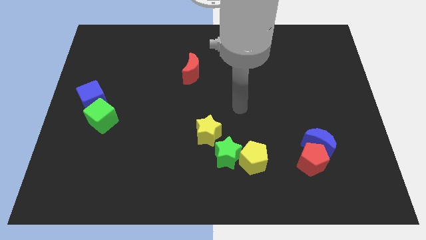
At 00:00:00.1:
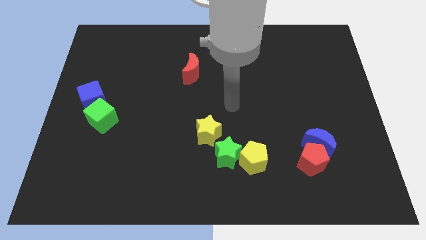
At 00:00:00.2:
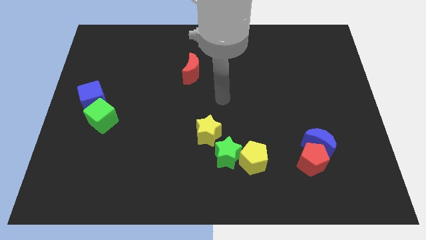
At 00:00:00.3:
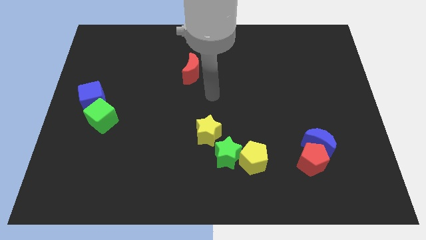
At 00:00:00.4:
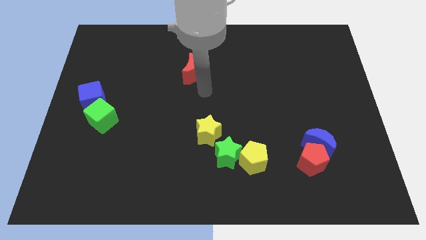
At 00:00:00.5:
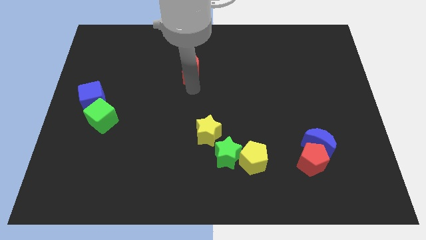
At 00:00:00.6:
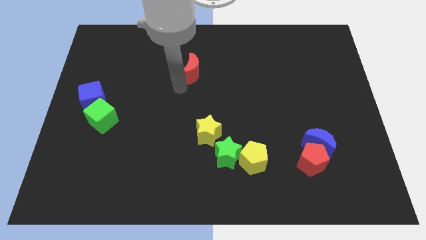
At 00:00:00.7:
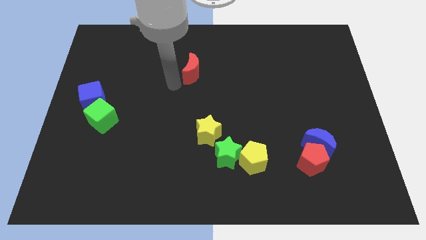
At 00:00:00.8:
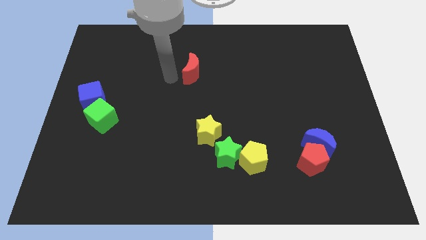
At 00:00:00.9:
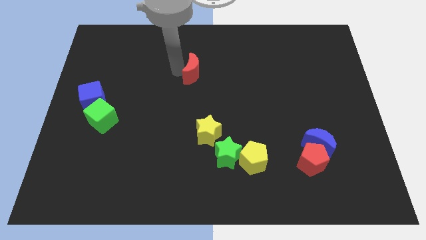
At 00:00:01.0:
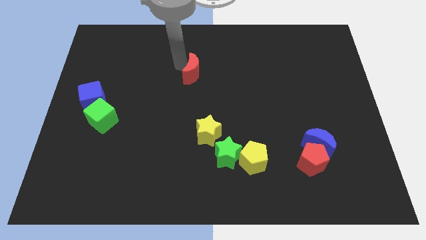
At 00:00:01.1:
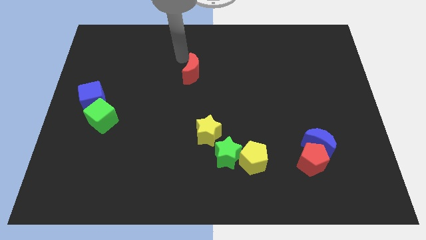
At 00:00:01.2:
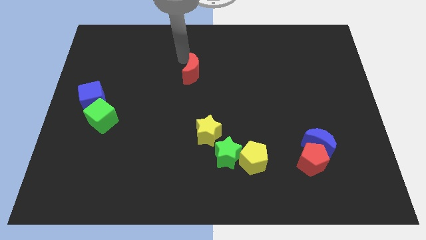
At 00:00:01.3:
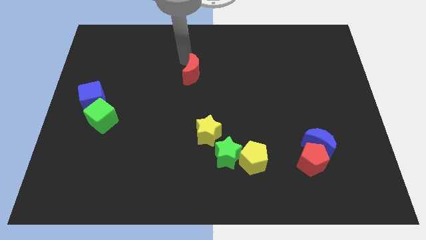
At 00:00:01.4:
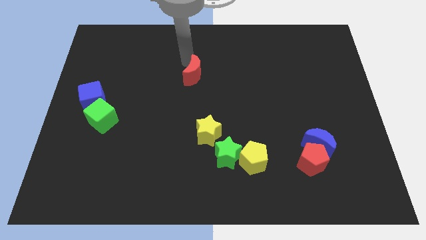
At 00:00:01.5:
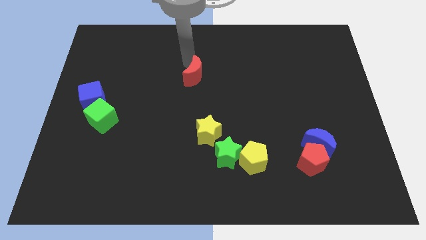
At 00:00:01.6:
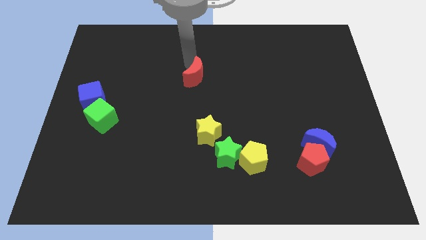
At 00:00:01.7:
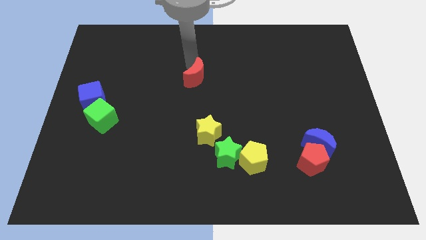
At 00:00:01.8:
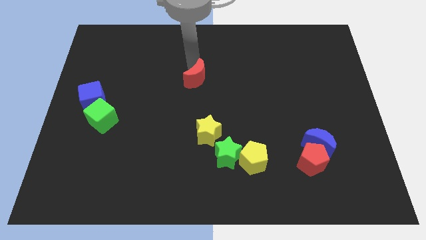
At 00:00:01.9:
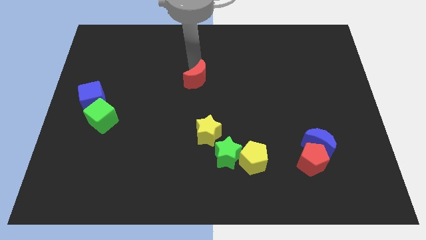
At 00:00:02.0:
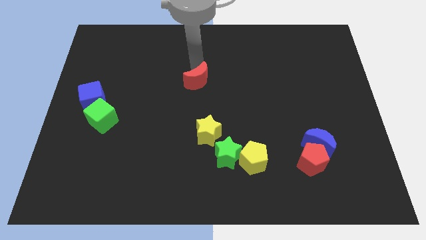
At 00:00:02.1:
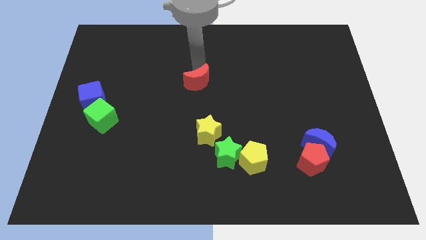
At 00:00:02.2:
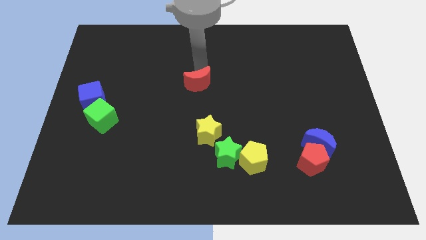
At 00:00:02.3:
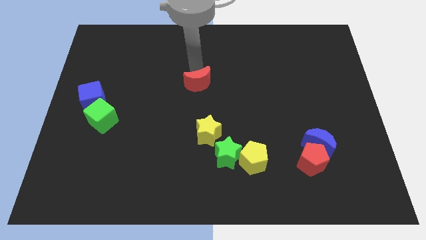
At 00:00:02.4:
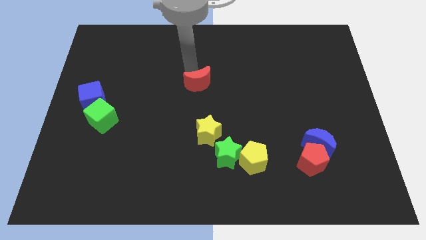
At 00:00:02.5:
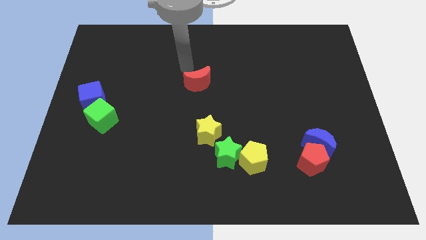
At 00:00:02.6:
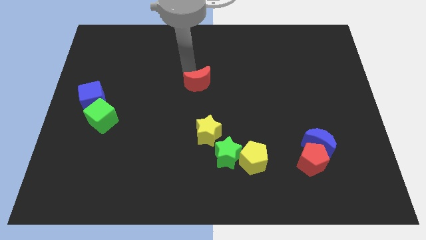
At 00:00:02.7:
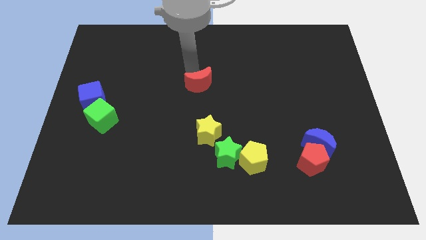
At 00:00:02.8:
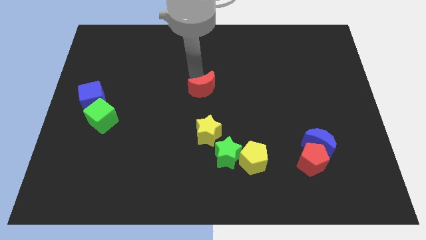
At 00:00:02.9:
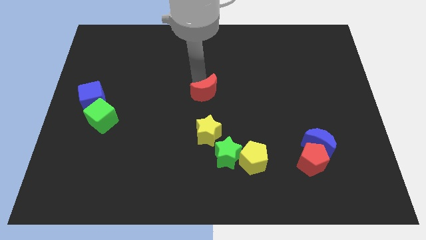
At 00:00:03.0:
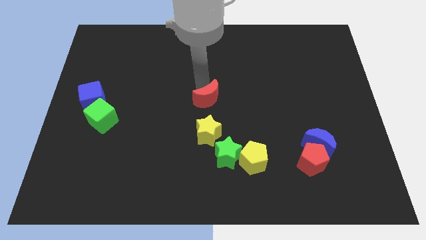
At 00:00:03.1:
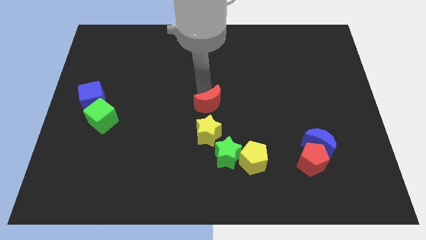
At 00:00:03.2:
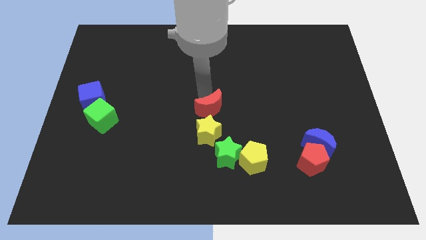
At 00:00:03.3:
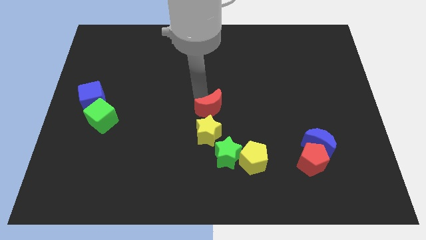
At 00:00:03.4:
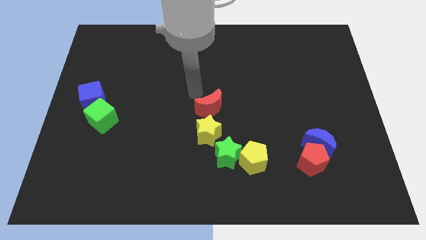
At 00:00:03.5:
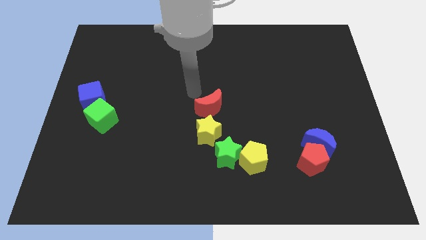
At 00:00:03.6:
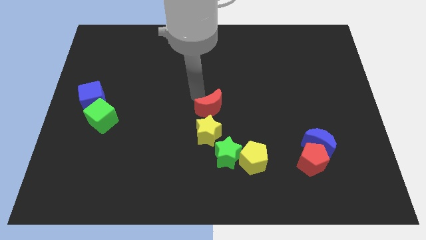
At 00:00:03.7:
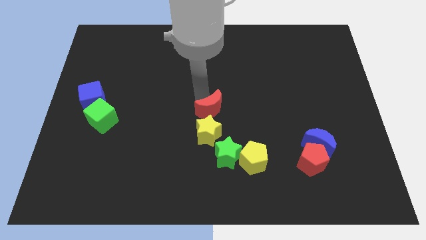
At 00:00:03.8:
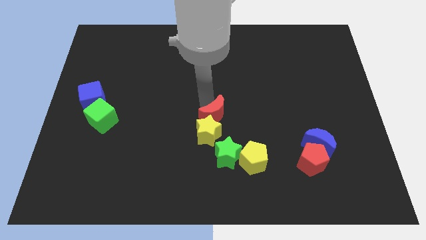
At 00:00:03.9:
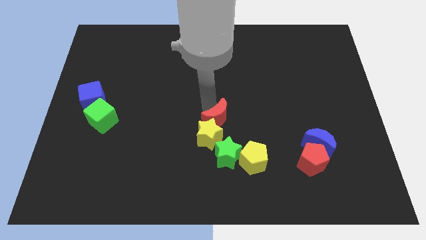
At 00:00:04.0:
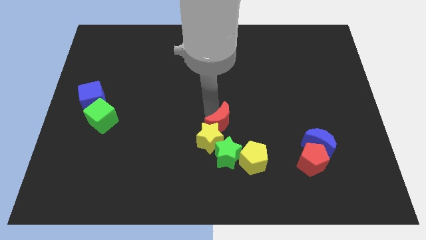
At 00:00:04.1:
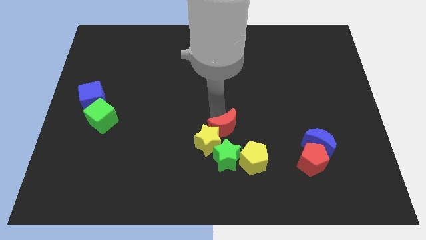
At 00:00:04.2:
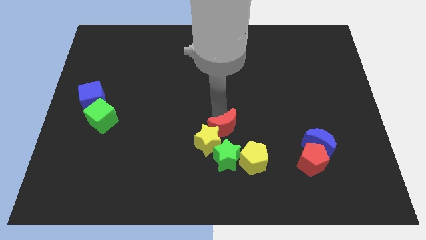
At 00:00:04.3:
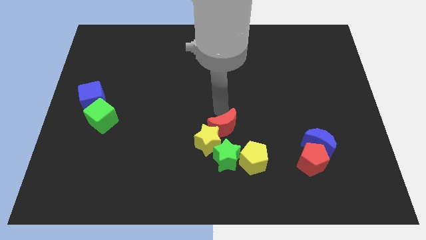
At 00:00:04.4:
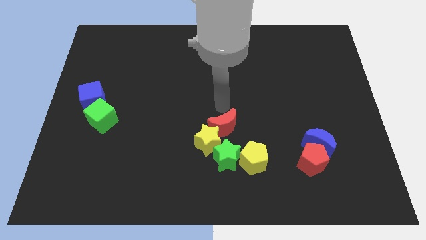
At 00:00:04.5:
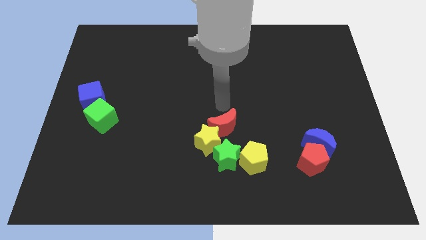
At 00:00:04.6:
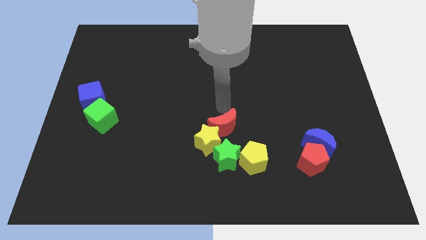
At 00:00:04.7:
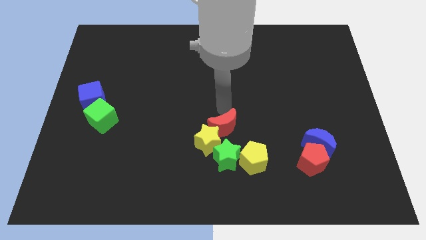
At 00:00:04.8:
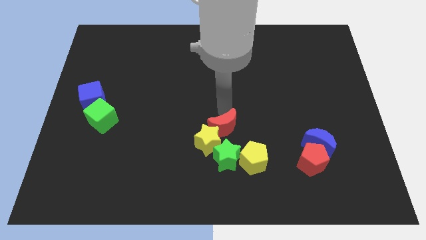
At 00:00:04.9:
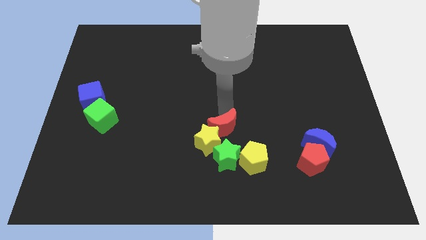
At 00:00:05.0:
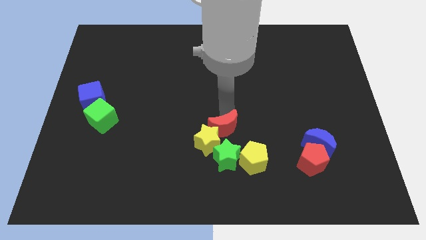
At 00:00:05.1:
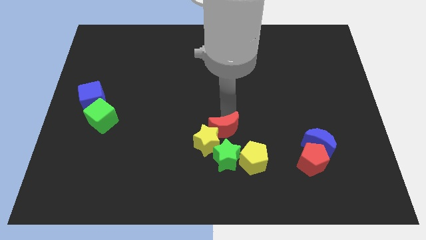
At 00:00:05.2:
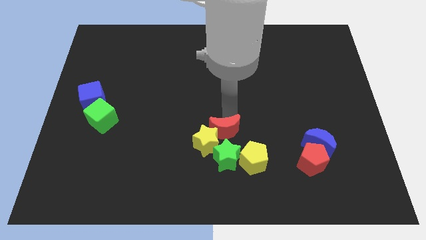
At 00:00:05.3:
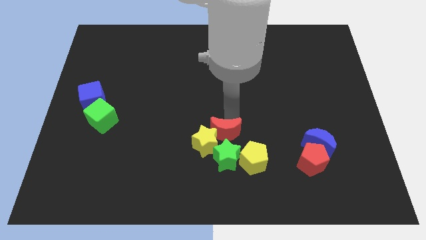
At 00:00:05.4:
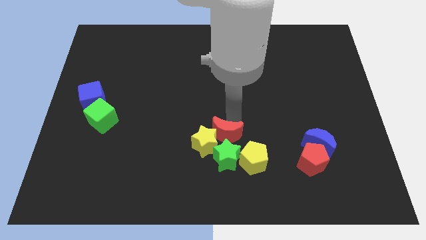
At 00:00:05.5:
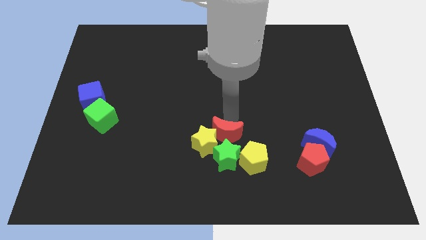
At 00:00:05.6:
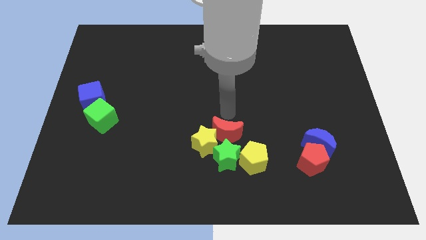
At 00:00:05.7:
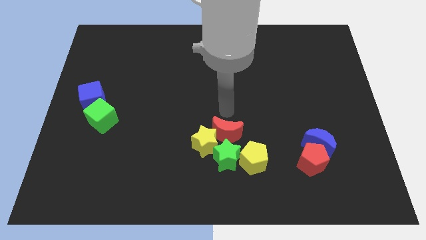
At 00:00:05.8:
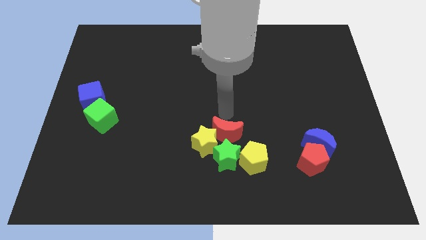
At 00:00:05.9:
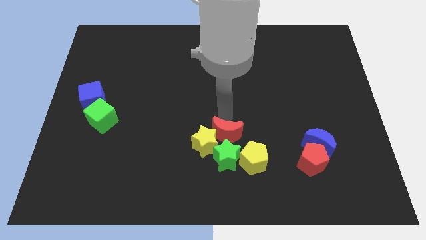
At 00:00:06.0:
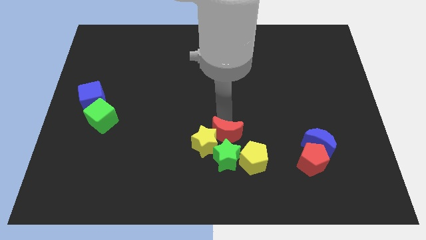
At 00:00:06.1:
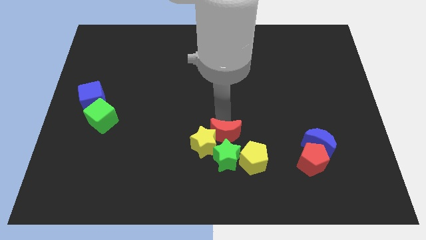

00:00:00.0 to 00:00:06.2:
put the red moon close to the green star

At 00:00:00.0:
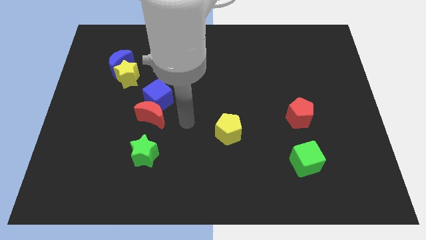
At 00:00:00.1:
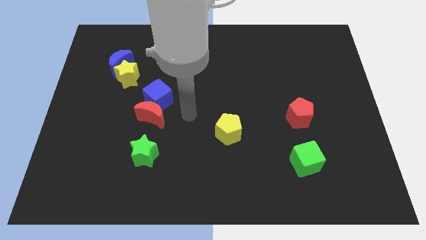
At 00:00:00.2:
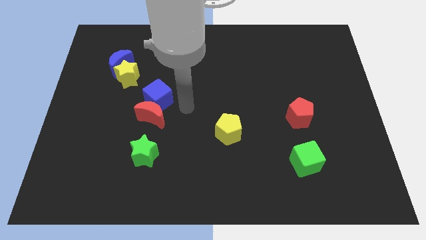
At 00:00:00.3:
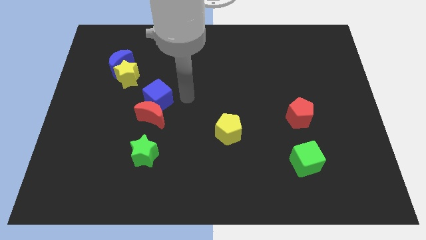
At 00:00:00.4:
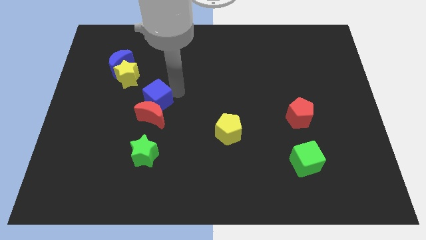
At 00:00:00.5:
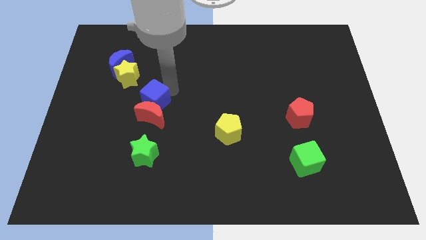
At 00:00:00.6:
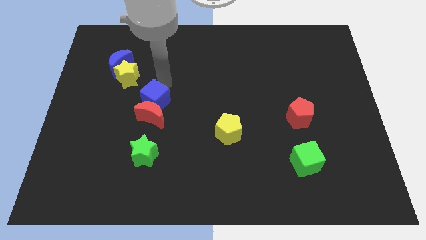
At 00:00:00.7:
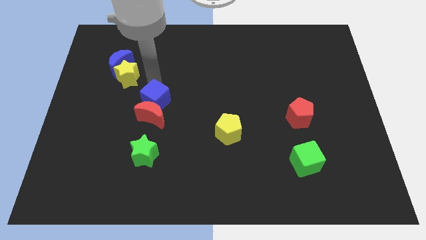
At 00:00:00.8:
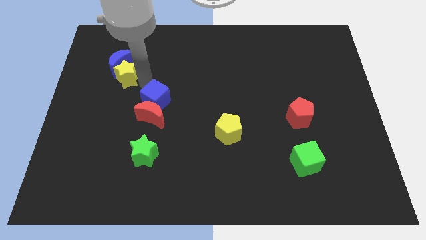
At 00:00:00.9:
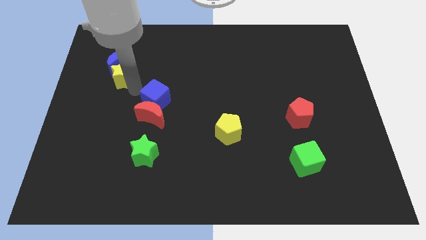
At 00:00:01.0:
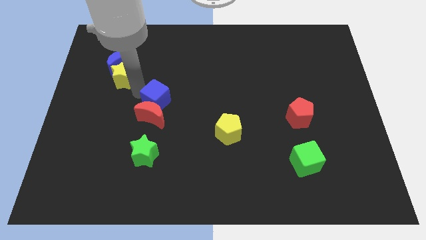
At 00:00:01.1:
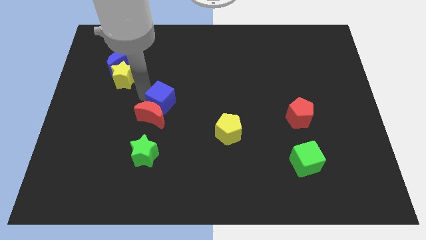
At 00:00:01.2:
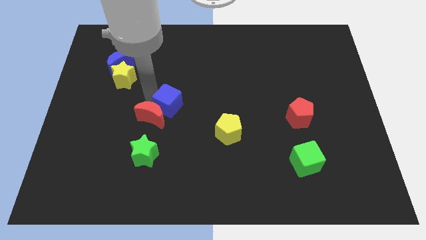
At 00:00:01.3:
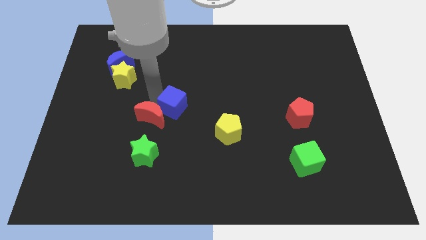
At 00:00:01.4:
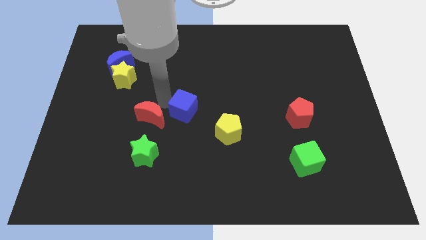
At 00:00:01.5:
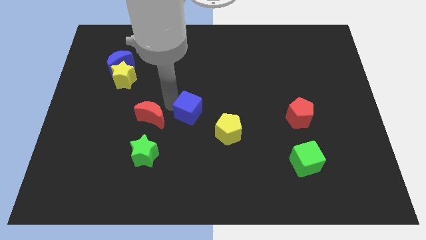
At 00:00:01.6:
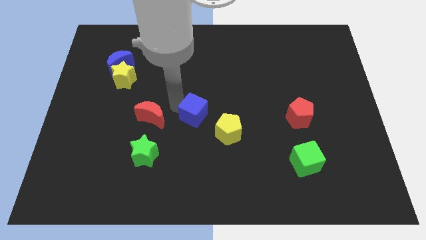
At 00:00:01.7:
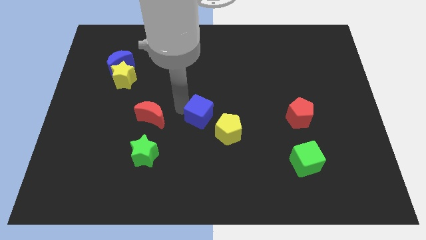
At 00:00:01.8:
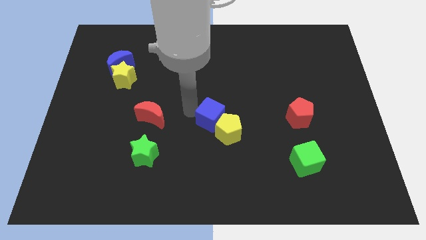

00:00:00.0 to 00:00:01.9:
put the blue cube next to the yellow pentagon
